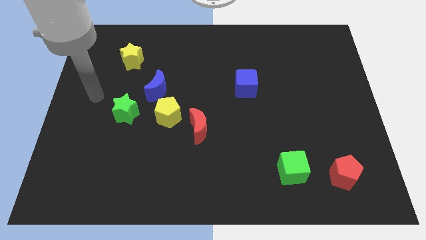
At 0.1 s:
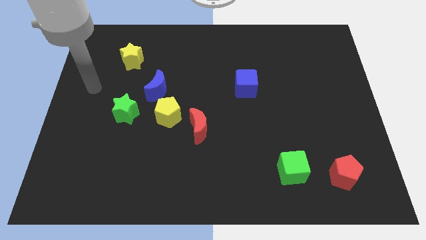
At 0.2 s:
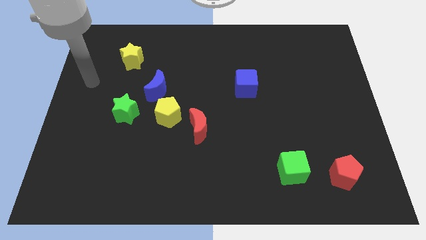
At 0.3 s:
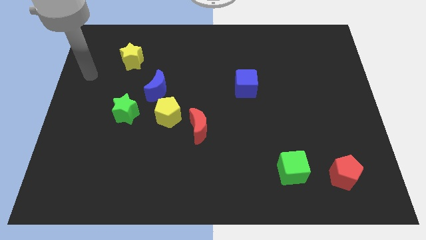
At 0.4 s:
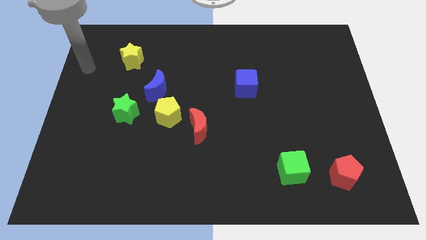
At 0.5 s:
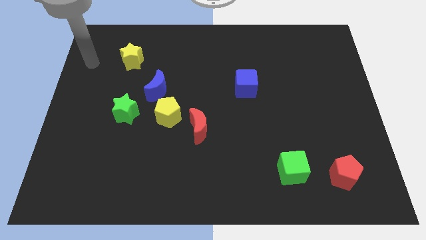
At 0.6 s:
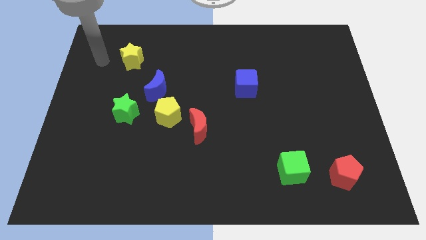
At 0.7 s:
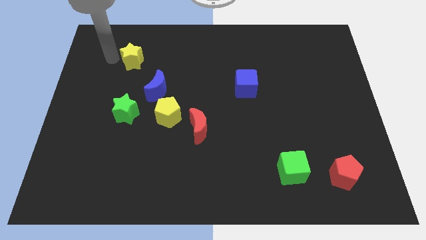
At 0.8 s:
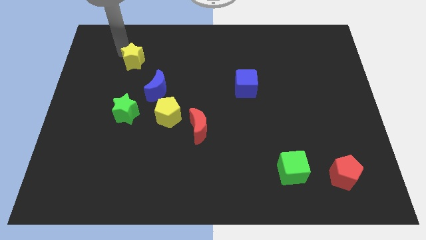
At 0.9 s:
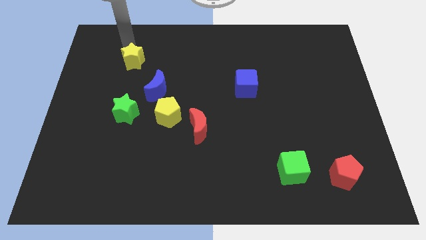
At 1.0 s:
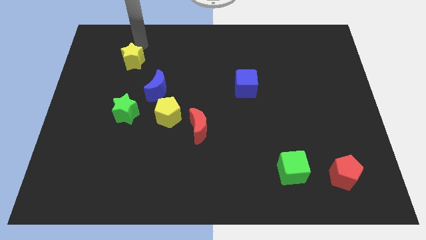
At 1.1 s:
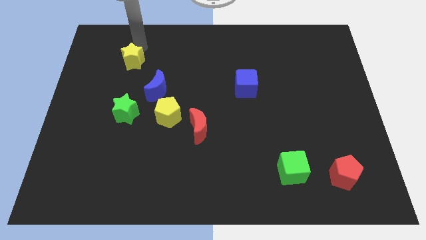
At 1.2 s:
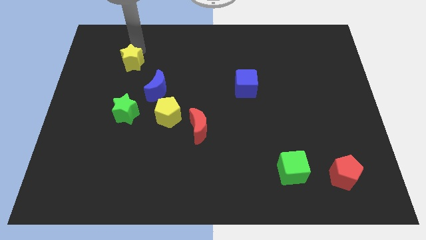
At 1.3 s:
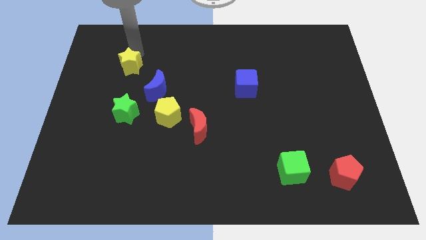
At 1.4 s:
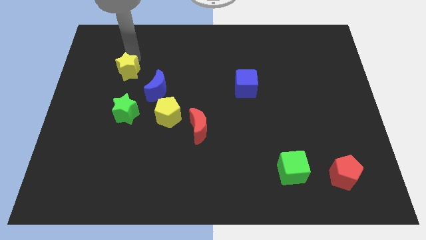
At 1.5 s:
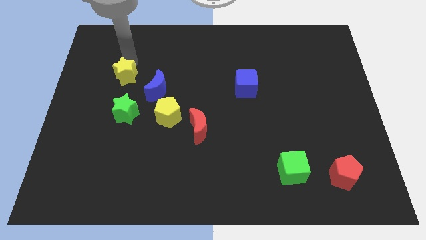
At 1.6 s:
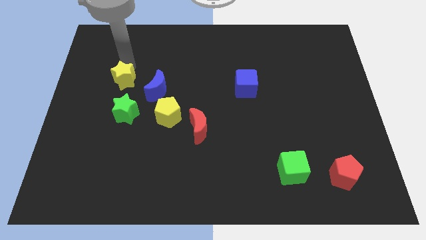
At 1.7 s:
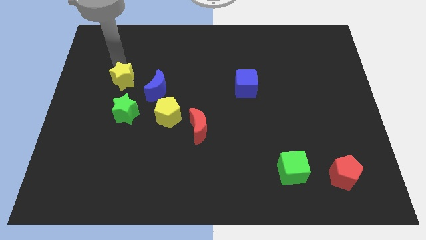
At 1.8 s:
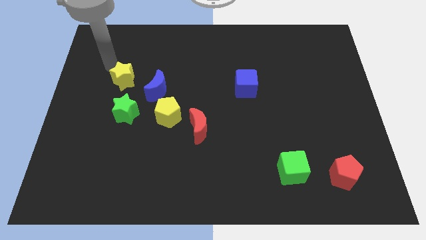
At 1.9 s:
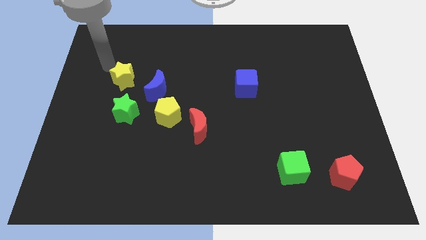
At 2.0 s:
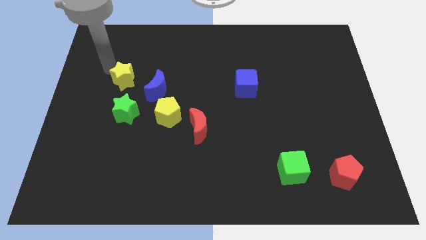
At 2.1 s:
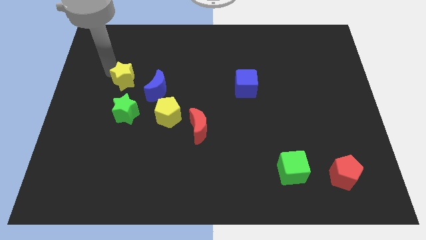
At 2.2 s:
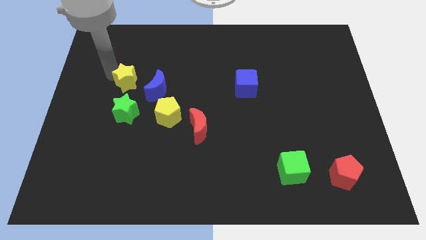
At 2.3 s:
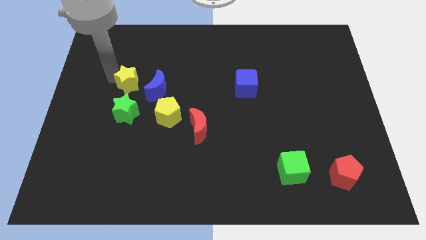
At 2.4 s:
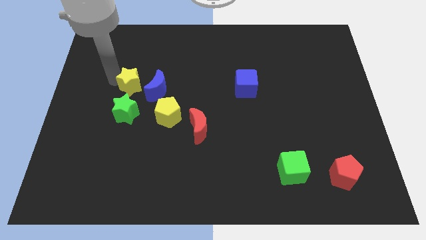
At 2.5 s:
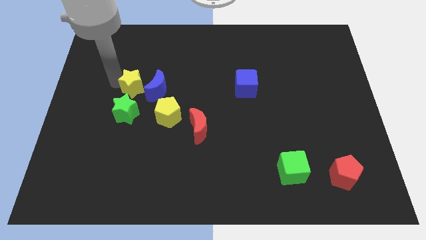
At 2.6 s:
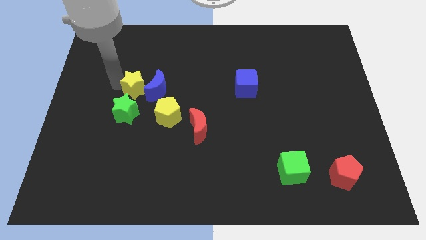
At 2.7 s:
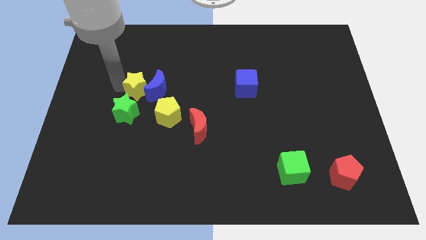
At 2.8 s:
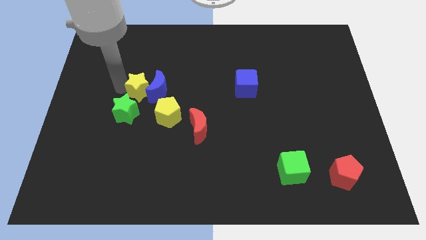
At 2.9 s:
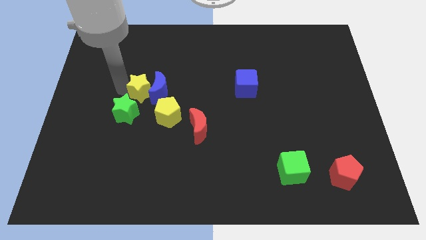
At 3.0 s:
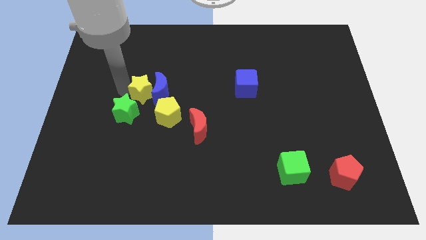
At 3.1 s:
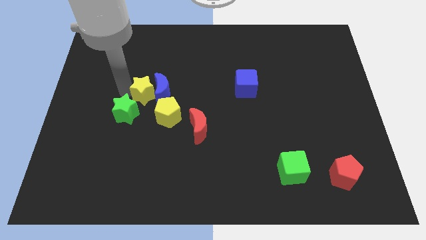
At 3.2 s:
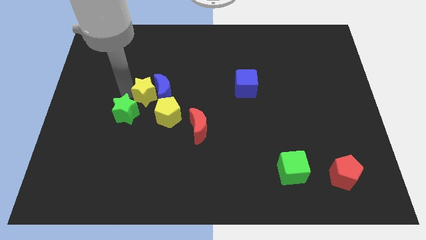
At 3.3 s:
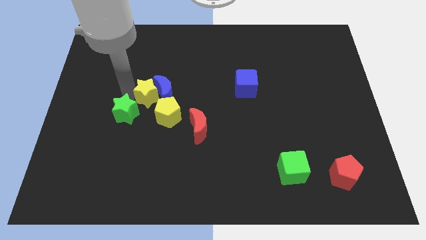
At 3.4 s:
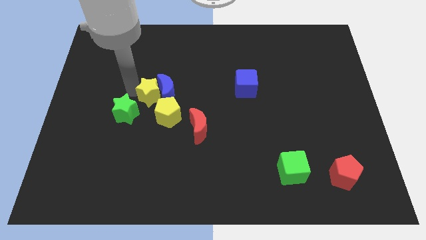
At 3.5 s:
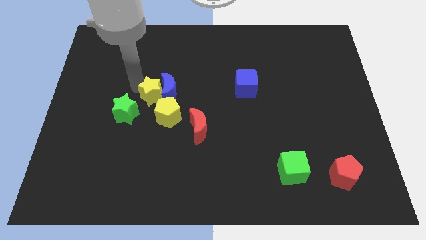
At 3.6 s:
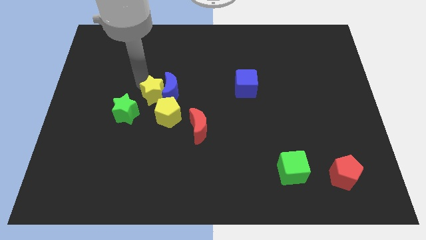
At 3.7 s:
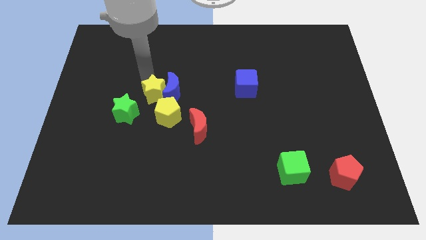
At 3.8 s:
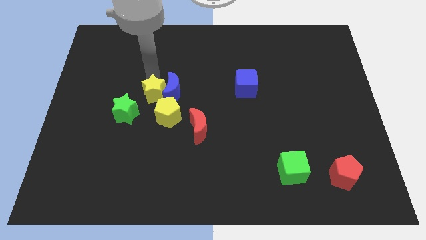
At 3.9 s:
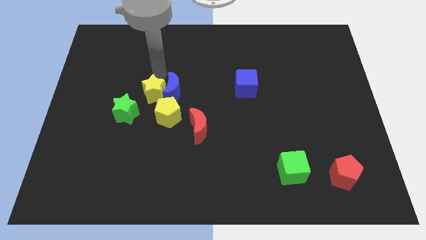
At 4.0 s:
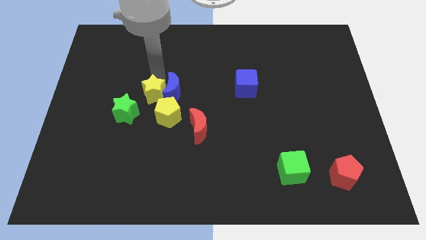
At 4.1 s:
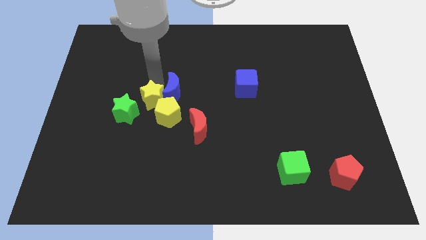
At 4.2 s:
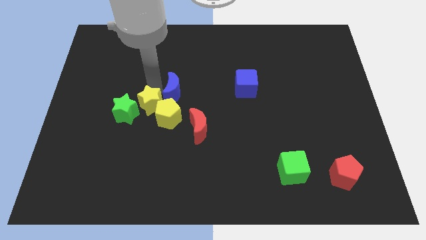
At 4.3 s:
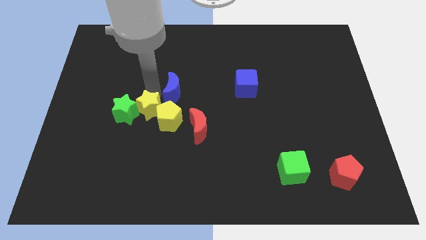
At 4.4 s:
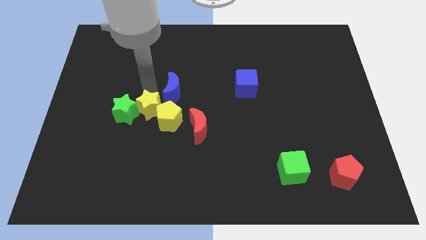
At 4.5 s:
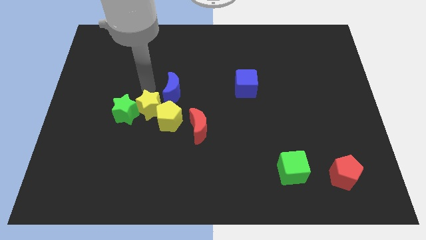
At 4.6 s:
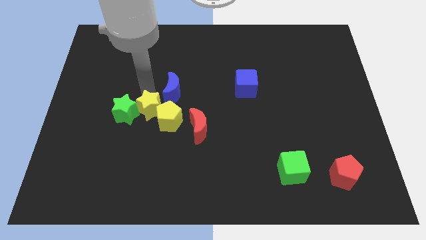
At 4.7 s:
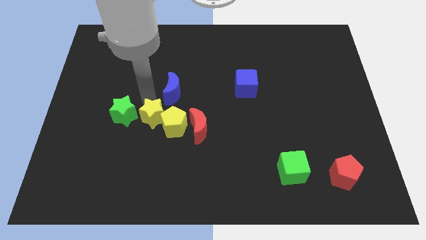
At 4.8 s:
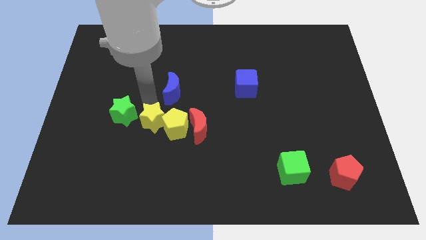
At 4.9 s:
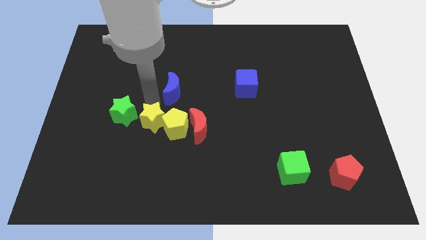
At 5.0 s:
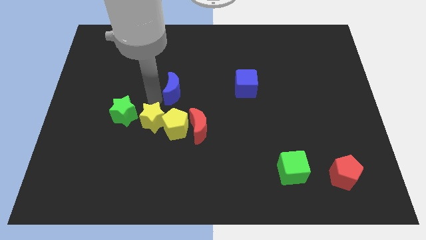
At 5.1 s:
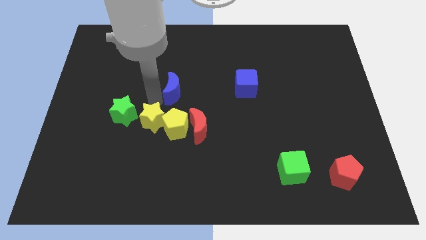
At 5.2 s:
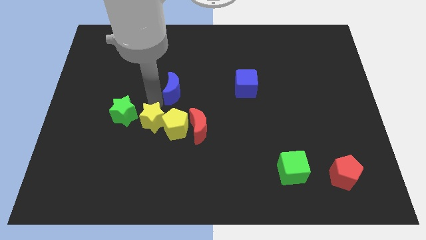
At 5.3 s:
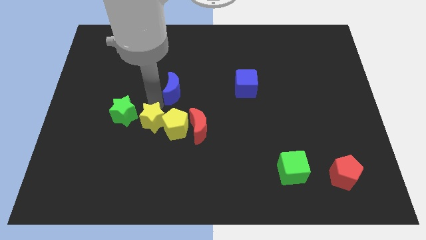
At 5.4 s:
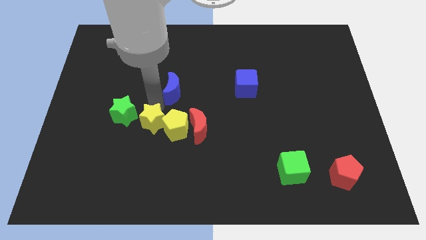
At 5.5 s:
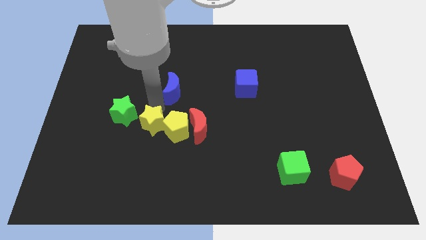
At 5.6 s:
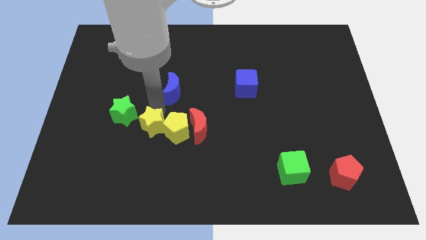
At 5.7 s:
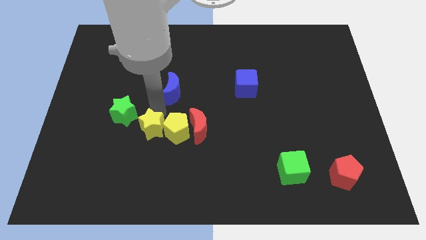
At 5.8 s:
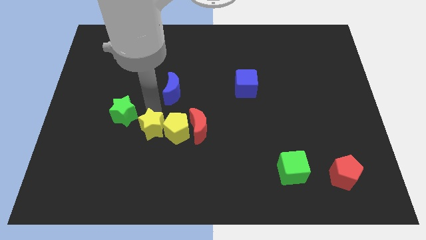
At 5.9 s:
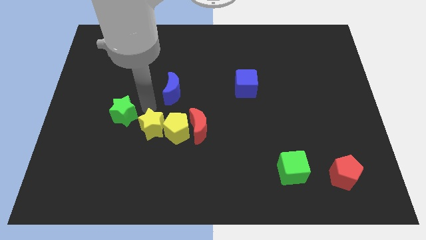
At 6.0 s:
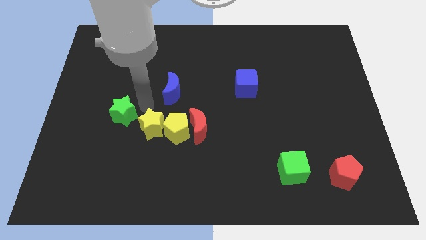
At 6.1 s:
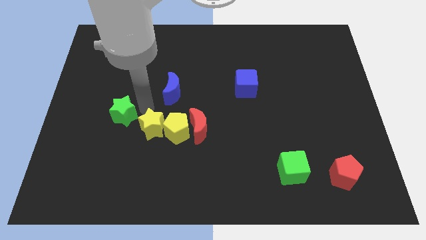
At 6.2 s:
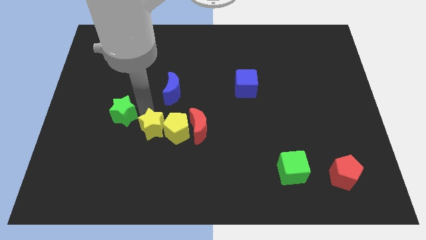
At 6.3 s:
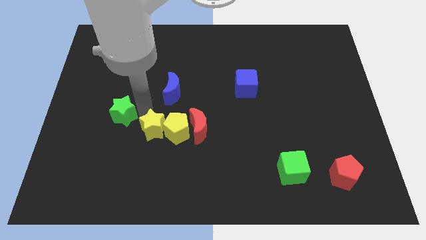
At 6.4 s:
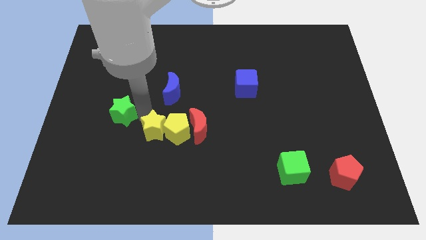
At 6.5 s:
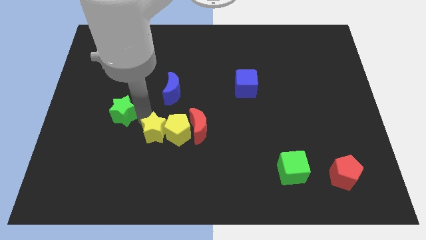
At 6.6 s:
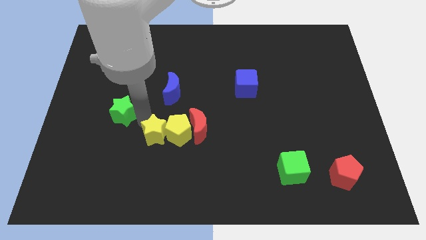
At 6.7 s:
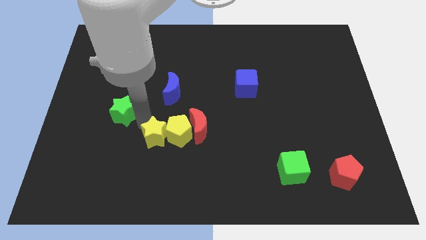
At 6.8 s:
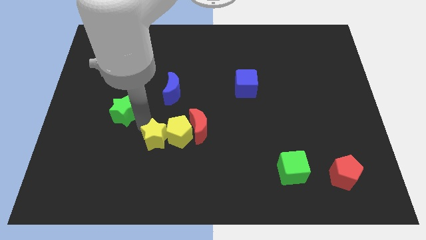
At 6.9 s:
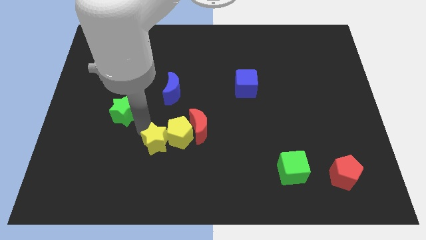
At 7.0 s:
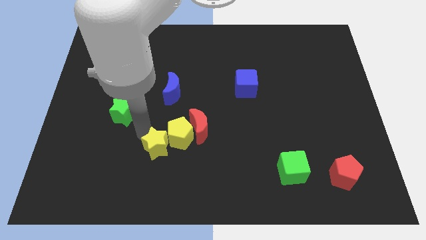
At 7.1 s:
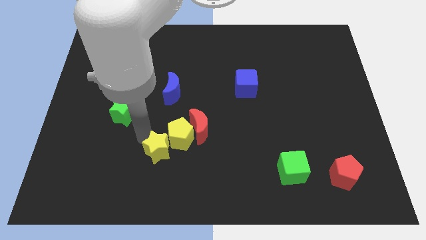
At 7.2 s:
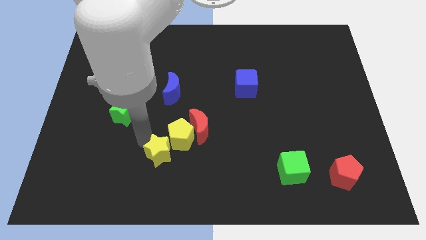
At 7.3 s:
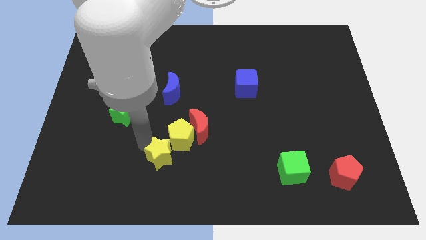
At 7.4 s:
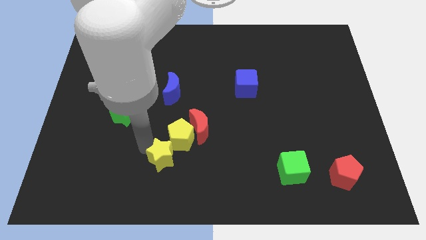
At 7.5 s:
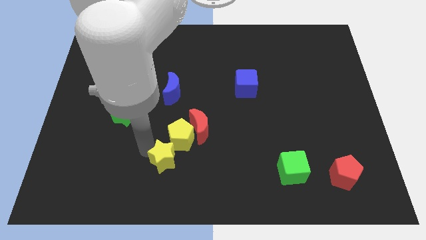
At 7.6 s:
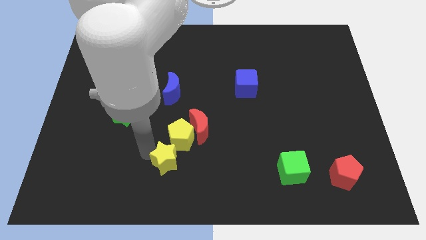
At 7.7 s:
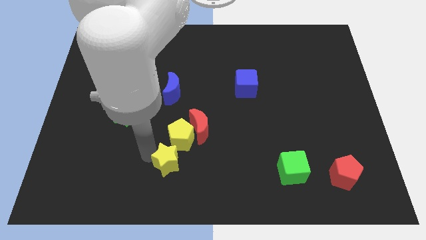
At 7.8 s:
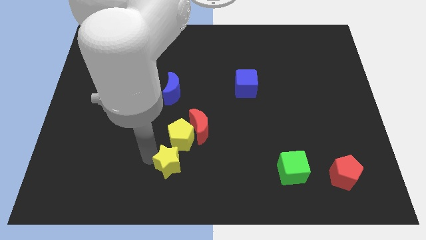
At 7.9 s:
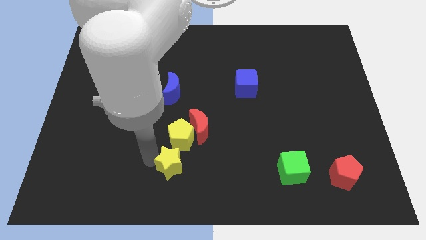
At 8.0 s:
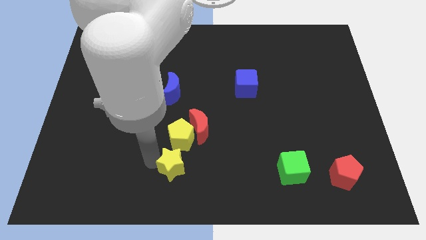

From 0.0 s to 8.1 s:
put the yellow star to the bottom
